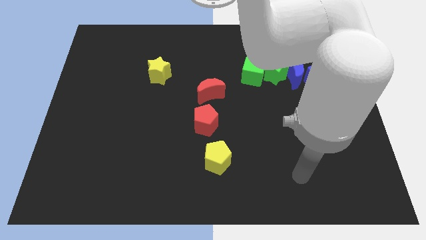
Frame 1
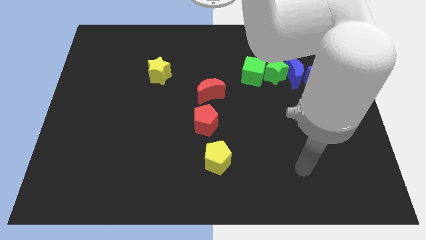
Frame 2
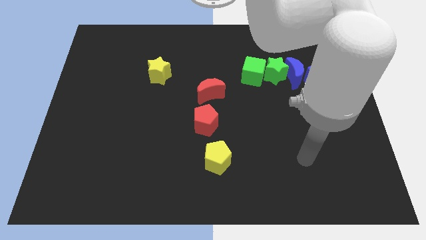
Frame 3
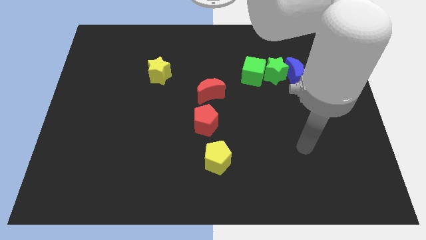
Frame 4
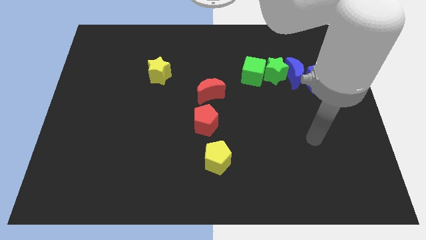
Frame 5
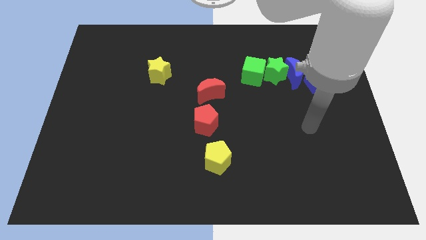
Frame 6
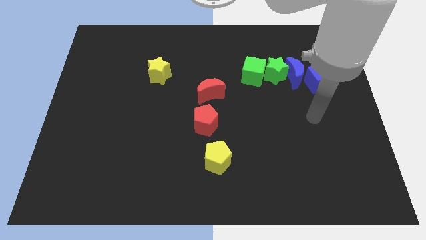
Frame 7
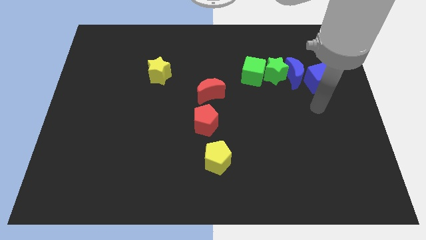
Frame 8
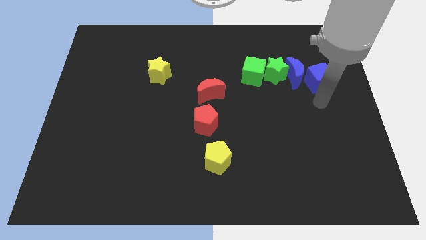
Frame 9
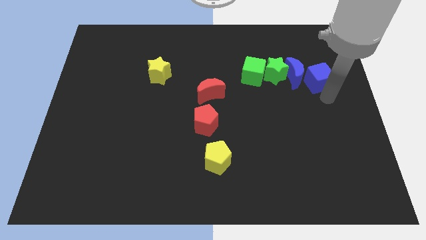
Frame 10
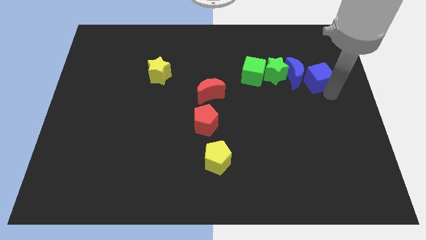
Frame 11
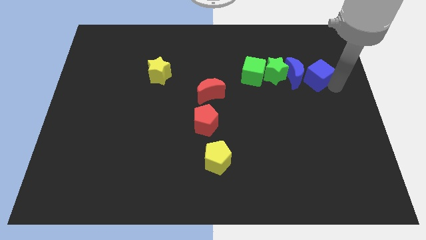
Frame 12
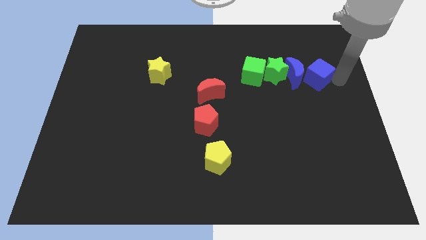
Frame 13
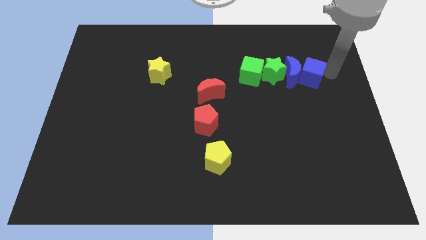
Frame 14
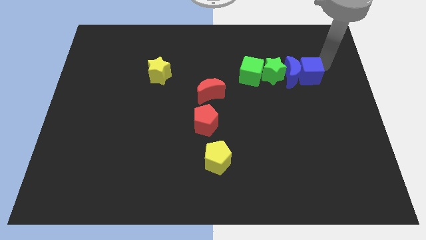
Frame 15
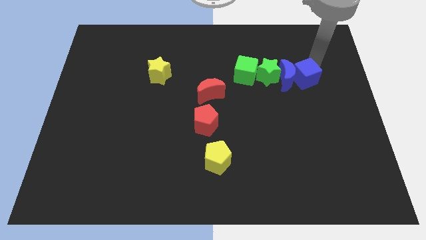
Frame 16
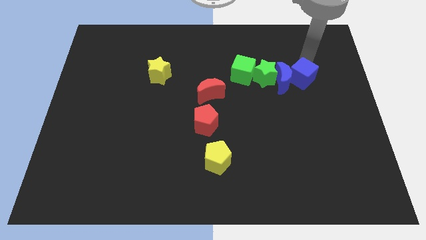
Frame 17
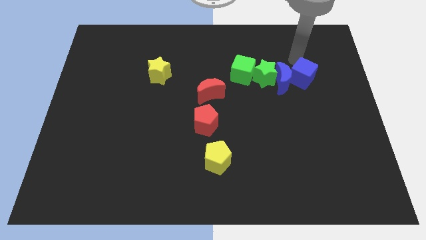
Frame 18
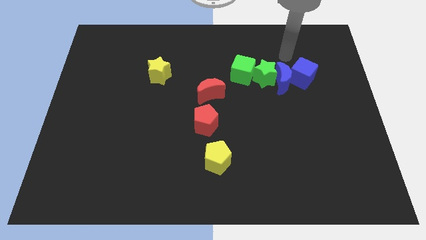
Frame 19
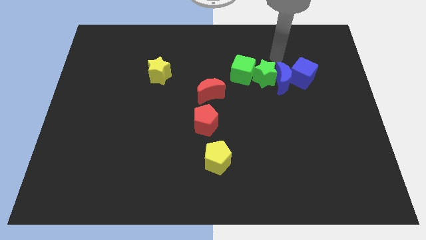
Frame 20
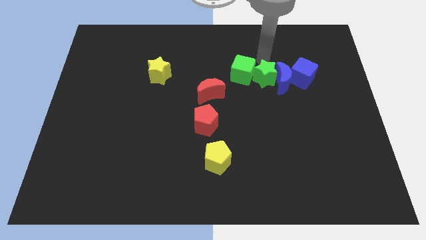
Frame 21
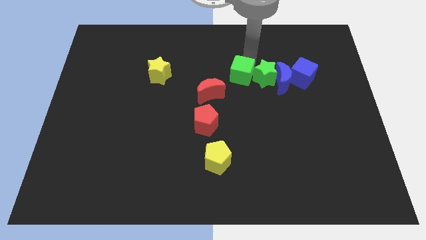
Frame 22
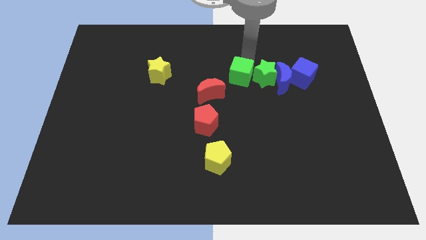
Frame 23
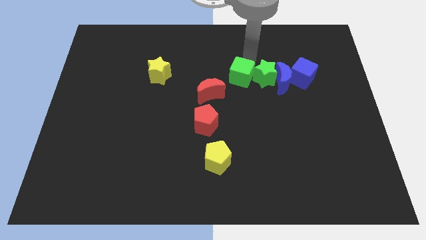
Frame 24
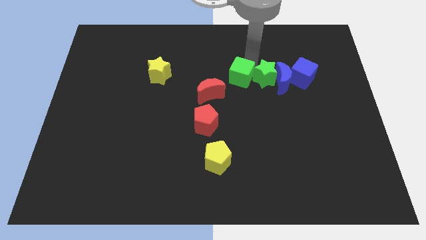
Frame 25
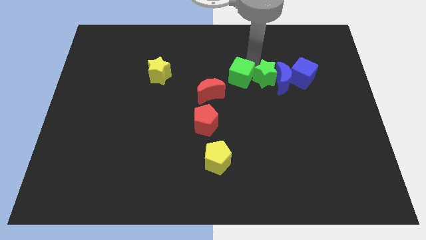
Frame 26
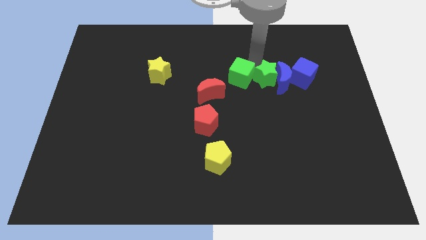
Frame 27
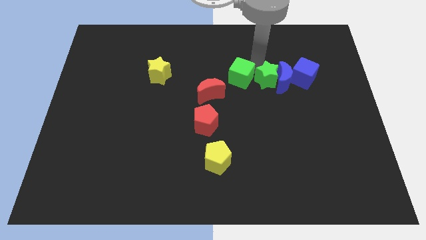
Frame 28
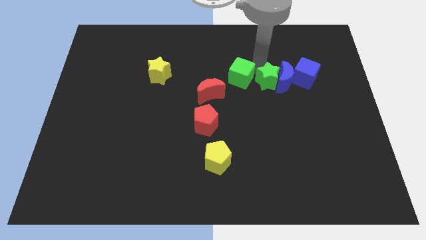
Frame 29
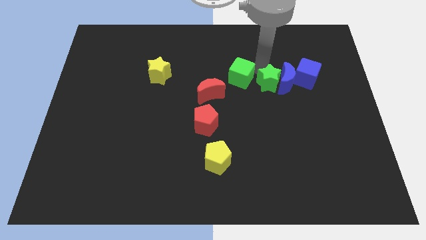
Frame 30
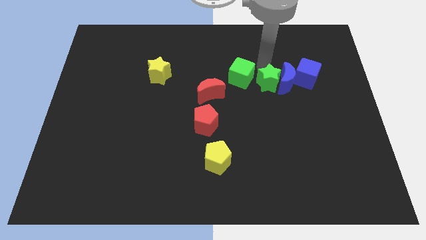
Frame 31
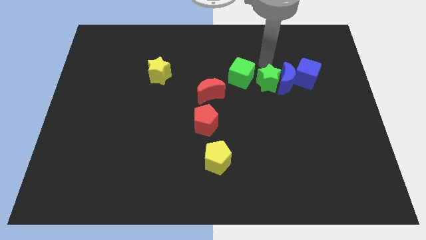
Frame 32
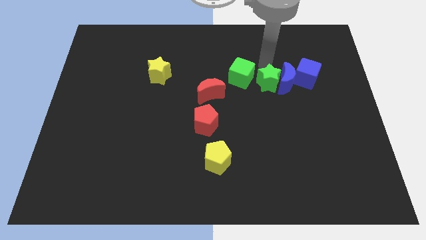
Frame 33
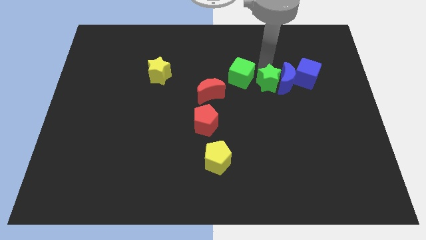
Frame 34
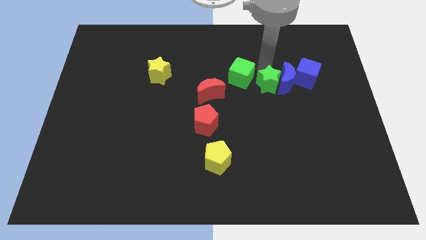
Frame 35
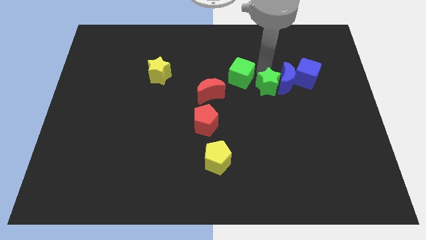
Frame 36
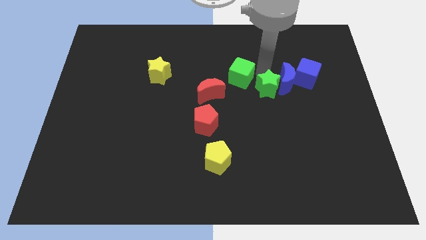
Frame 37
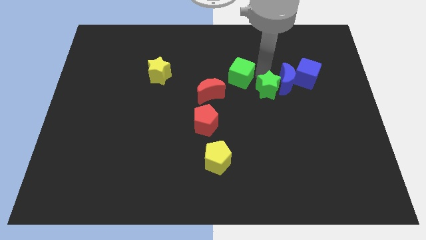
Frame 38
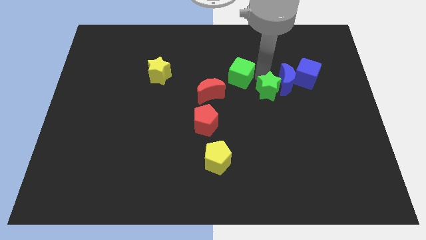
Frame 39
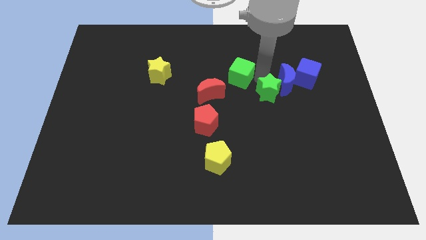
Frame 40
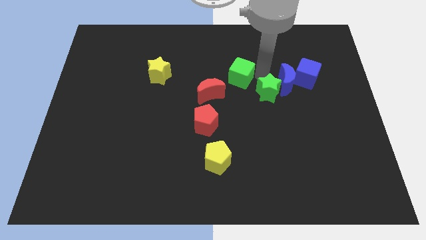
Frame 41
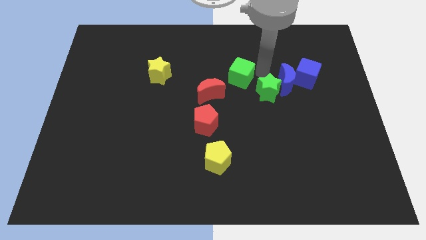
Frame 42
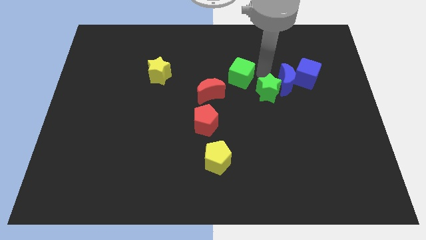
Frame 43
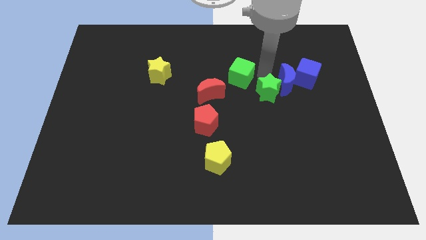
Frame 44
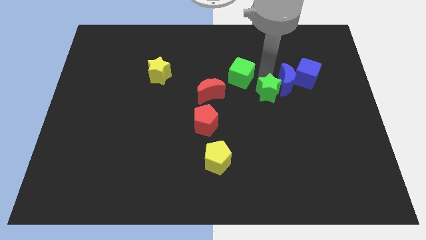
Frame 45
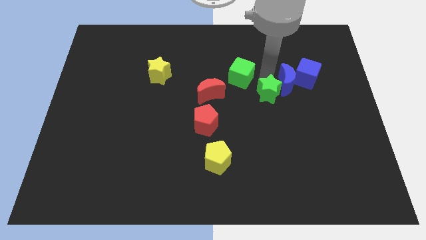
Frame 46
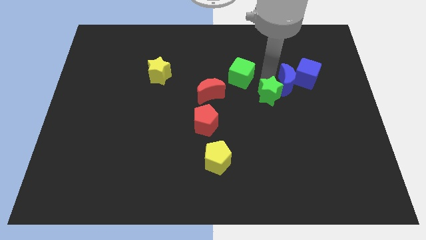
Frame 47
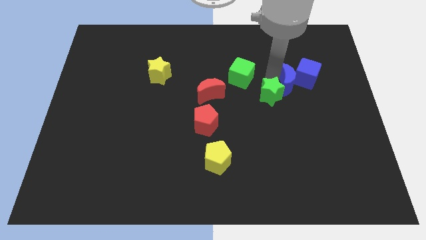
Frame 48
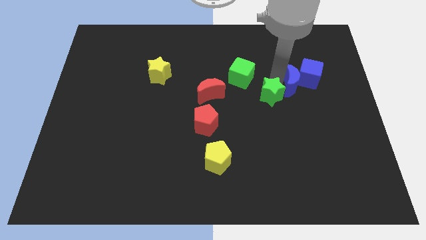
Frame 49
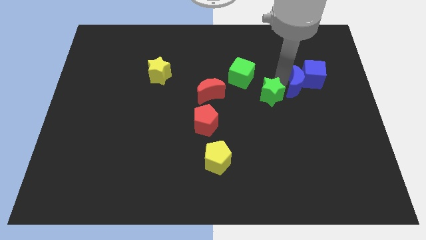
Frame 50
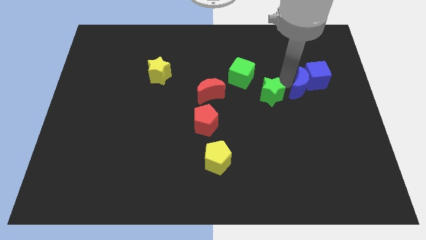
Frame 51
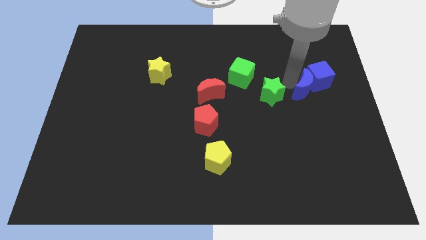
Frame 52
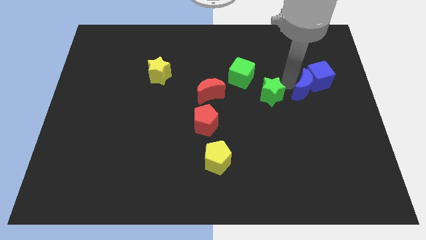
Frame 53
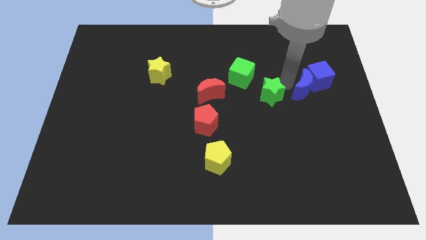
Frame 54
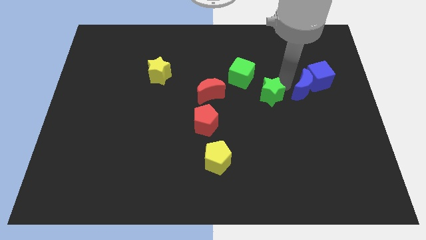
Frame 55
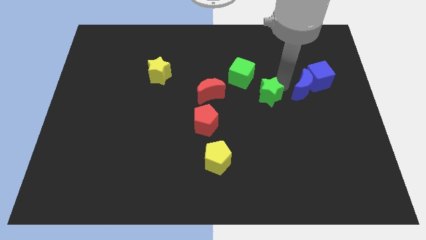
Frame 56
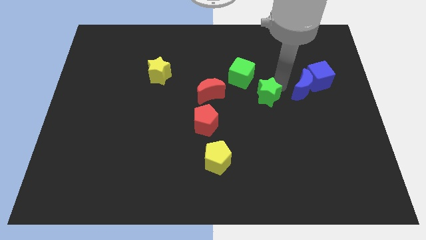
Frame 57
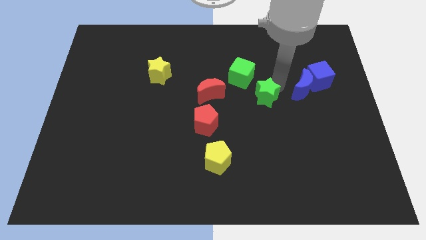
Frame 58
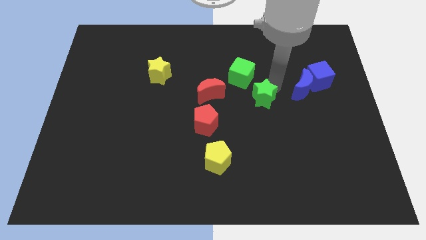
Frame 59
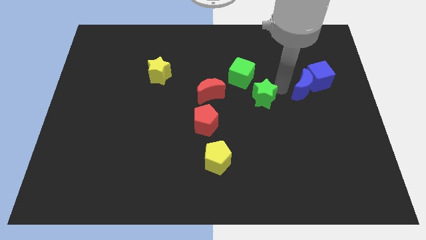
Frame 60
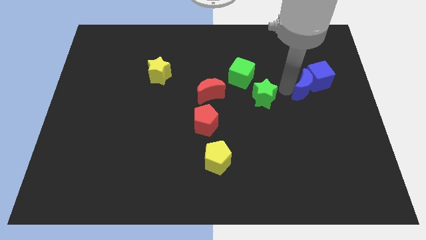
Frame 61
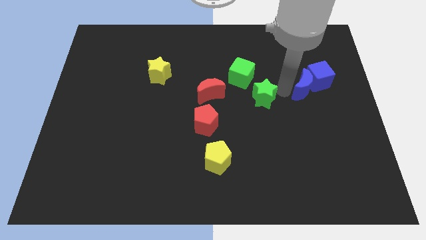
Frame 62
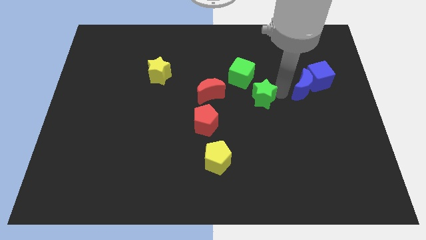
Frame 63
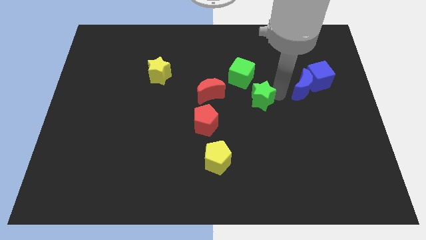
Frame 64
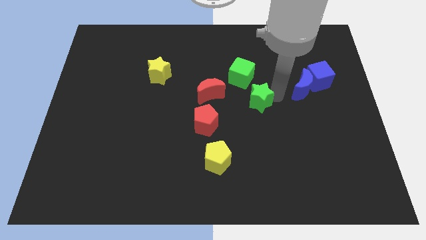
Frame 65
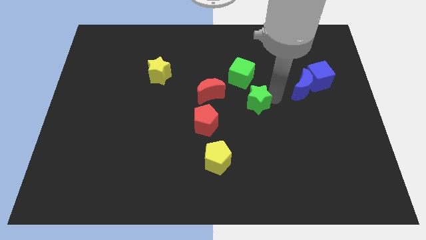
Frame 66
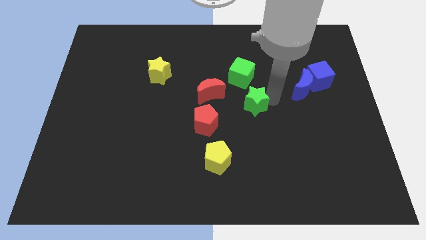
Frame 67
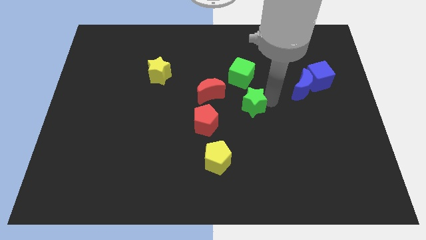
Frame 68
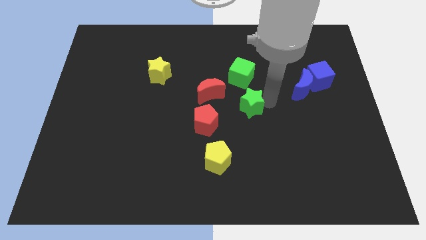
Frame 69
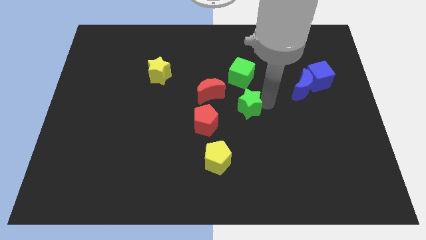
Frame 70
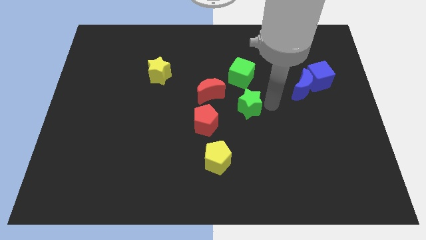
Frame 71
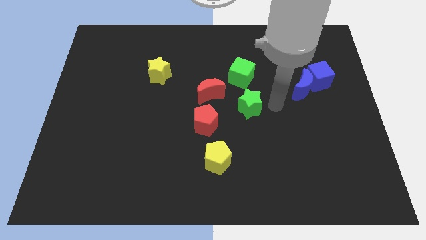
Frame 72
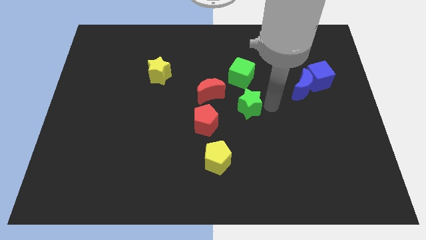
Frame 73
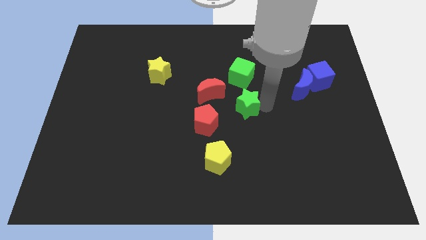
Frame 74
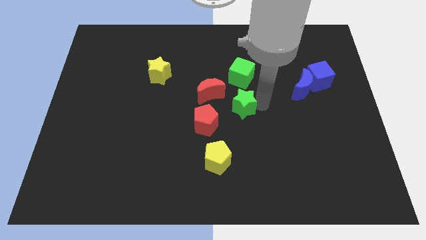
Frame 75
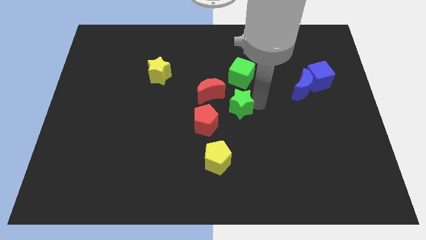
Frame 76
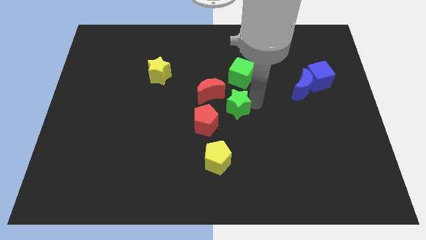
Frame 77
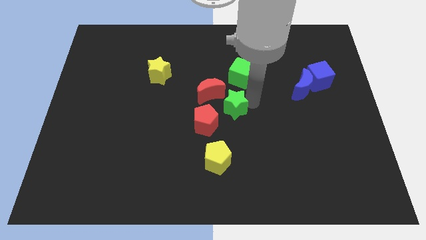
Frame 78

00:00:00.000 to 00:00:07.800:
slide the green star above the yellow pentagon
